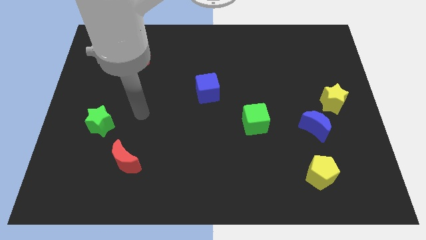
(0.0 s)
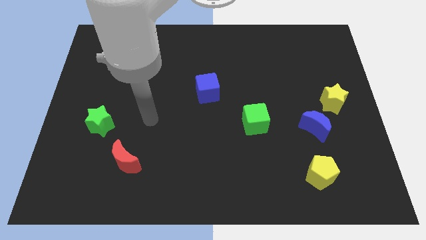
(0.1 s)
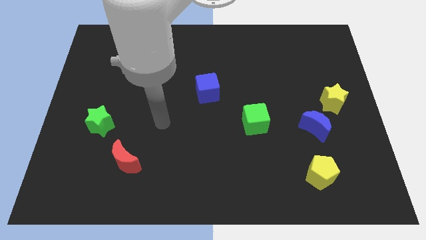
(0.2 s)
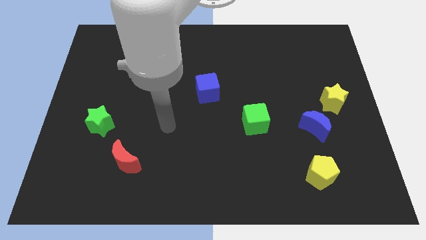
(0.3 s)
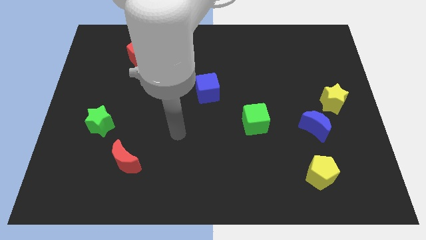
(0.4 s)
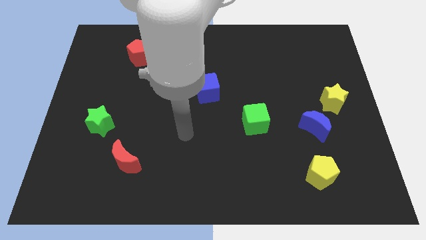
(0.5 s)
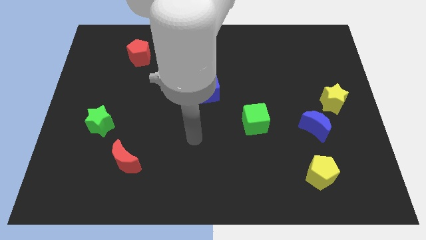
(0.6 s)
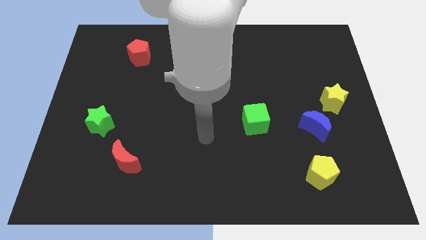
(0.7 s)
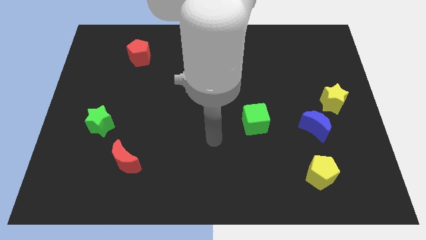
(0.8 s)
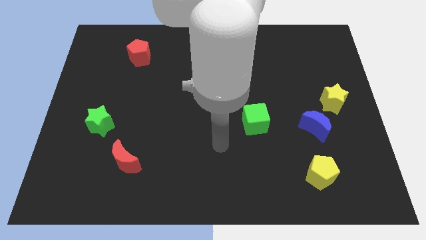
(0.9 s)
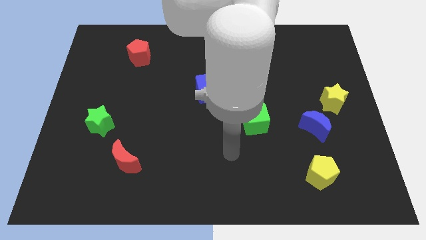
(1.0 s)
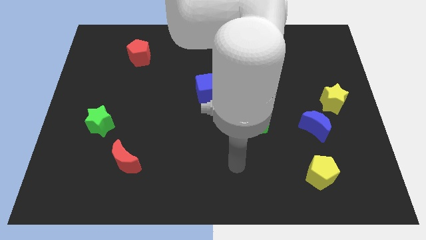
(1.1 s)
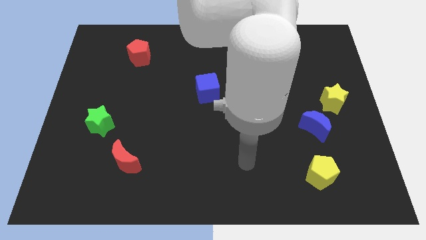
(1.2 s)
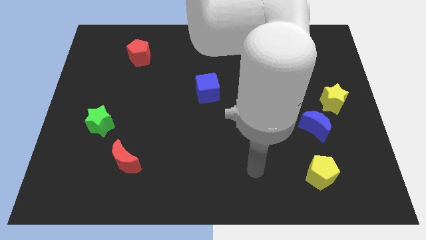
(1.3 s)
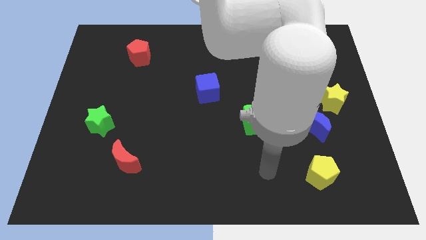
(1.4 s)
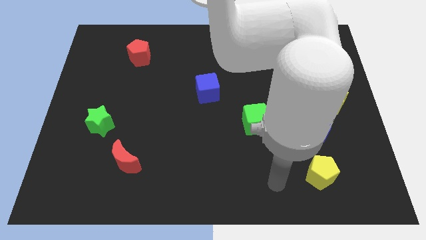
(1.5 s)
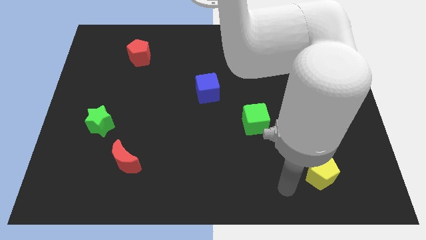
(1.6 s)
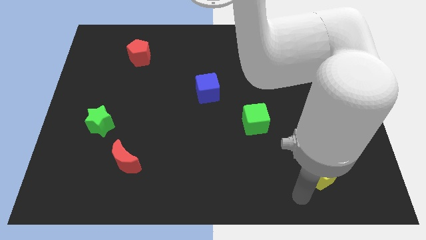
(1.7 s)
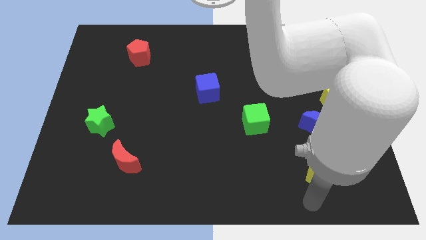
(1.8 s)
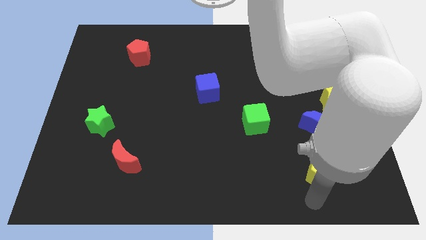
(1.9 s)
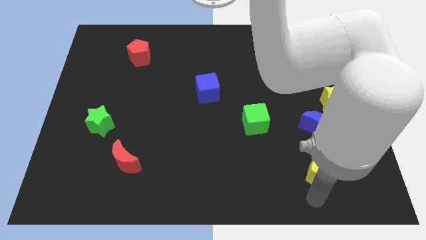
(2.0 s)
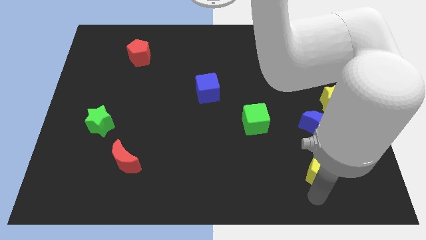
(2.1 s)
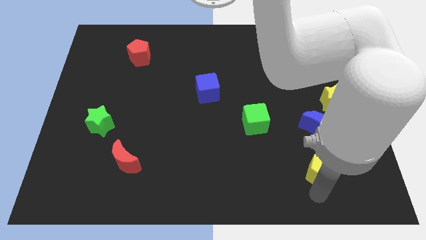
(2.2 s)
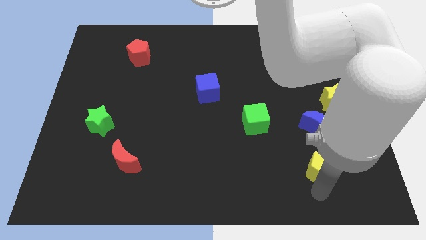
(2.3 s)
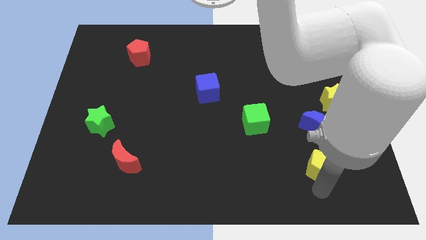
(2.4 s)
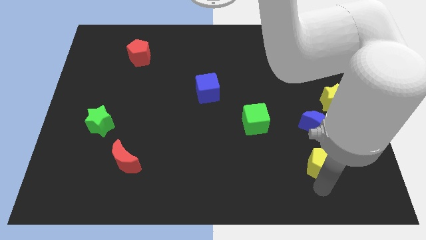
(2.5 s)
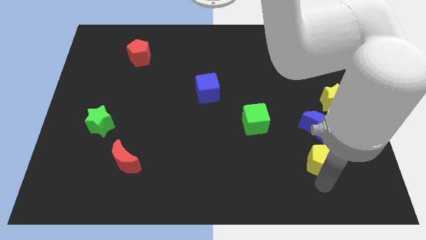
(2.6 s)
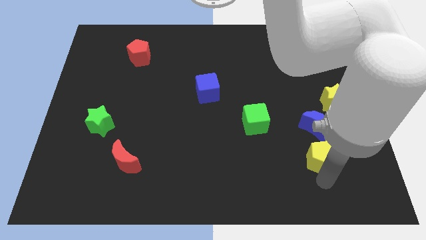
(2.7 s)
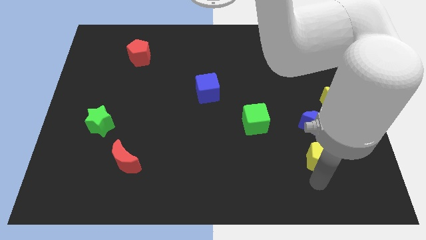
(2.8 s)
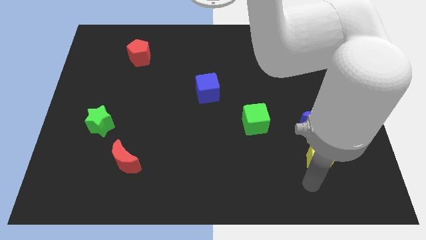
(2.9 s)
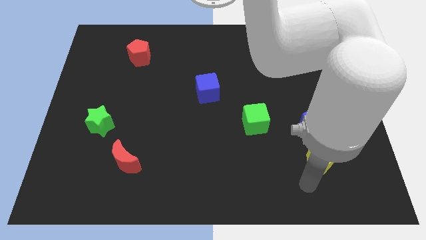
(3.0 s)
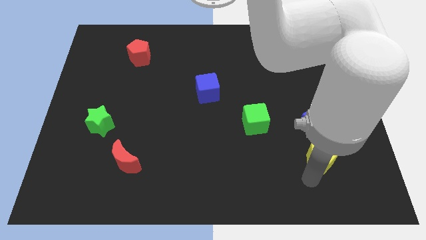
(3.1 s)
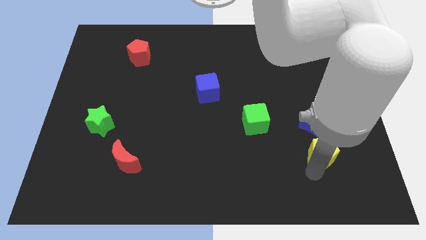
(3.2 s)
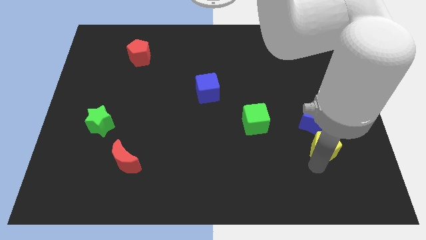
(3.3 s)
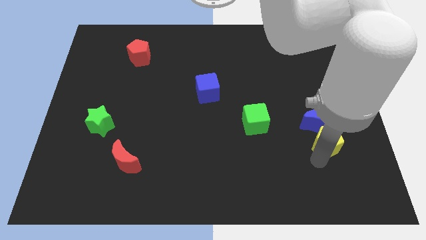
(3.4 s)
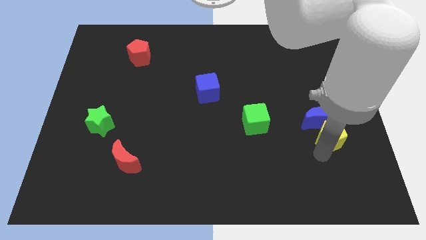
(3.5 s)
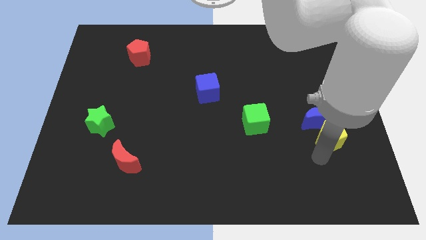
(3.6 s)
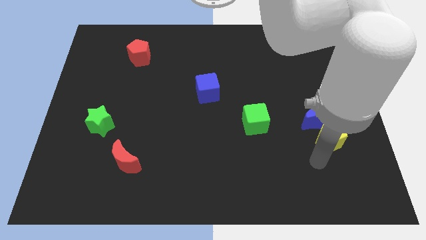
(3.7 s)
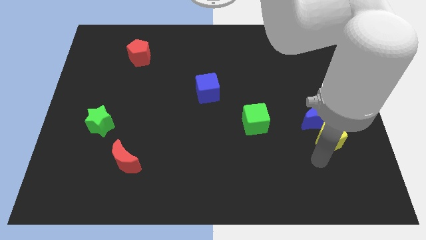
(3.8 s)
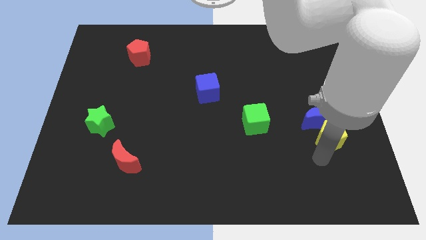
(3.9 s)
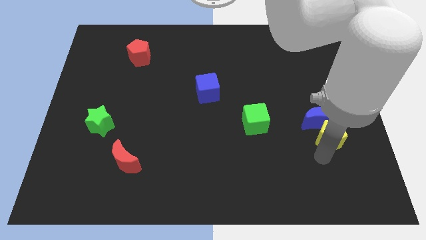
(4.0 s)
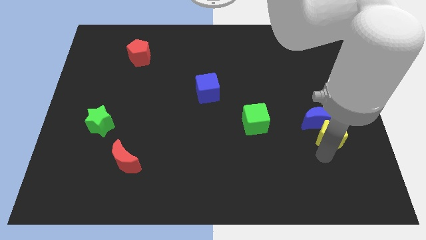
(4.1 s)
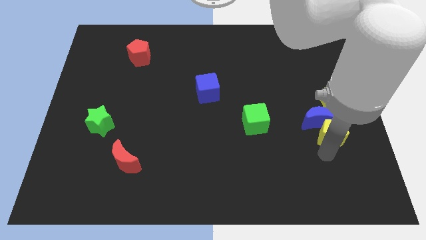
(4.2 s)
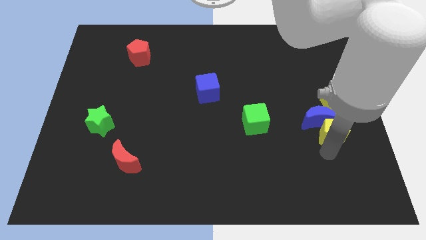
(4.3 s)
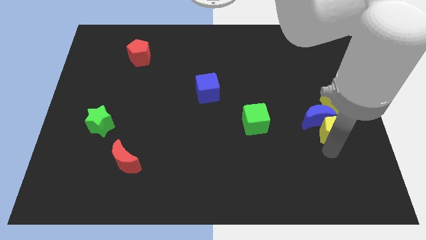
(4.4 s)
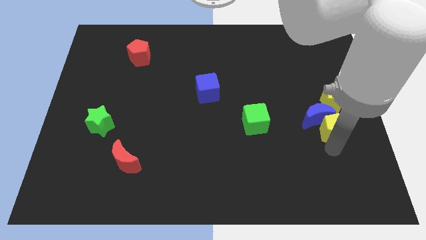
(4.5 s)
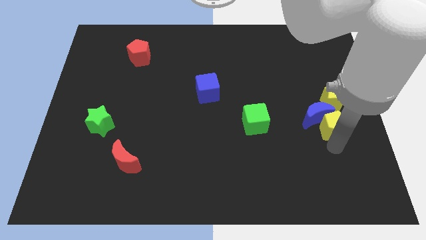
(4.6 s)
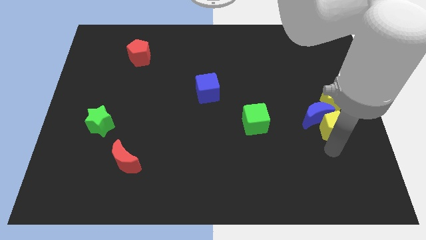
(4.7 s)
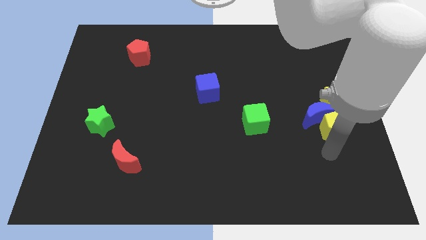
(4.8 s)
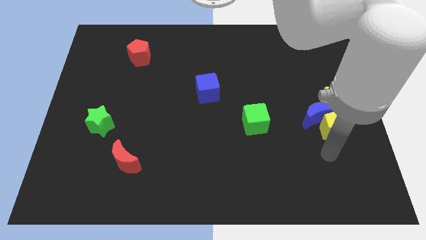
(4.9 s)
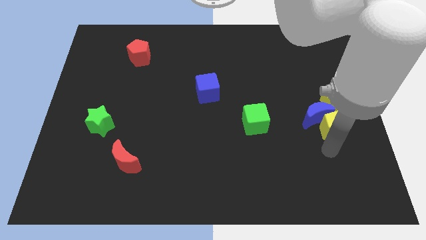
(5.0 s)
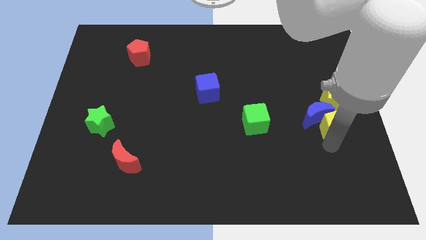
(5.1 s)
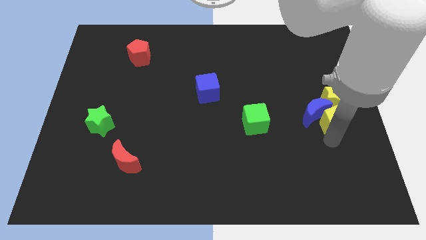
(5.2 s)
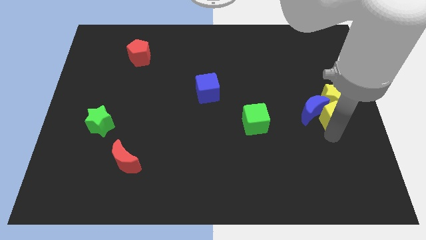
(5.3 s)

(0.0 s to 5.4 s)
move the yellow pentagon towards the yellow star
